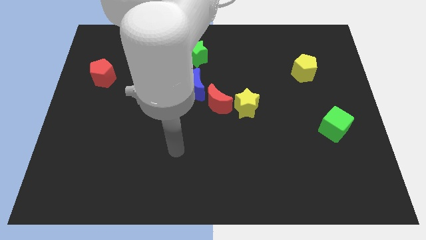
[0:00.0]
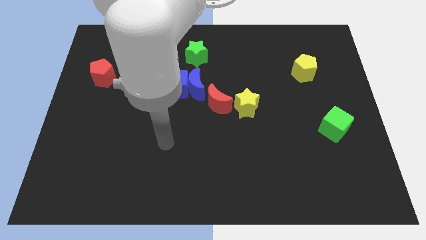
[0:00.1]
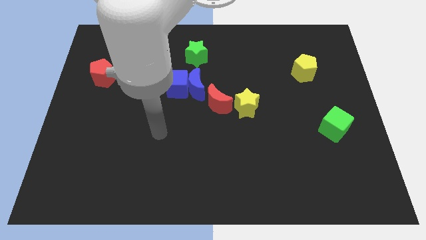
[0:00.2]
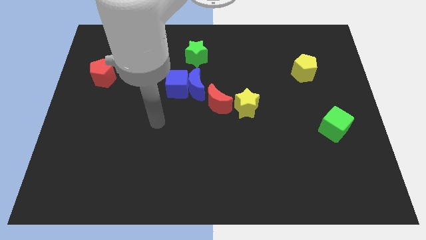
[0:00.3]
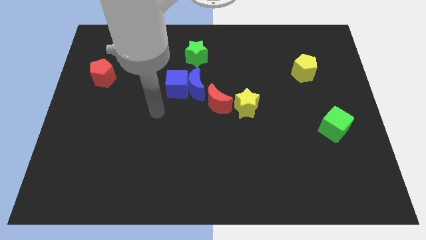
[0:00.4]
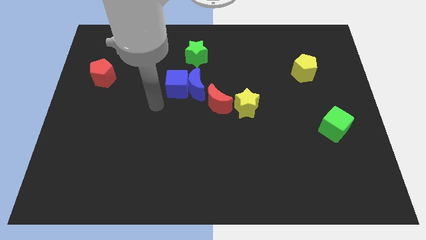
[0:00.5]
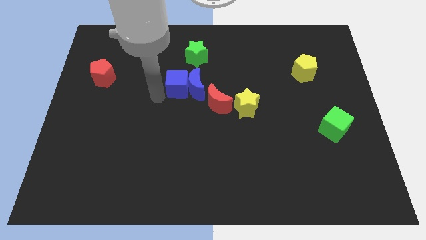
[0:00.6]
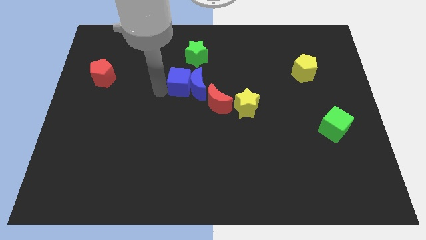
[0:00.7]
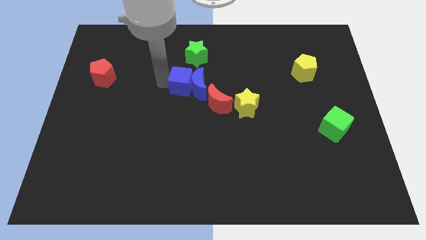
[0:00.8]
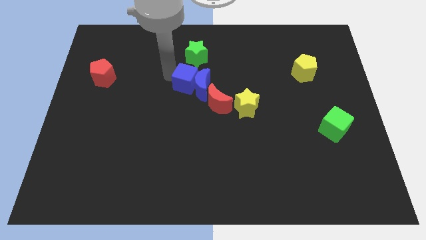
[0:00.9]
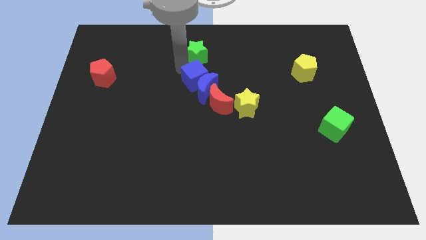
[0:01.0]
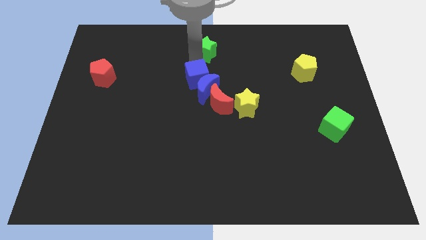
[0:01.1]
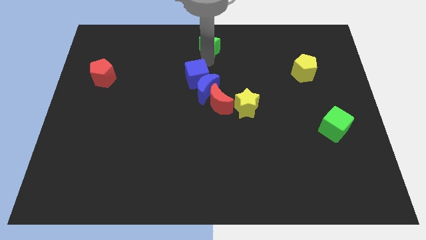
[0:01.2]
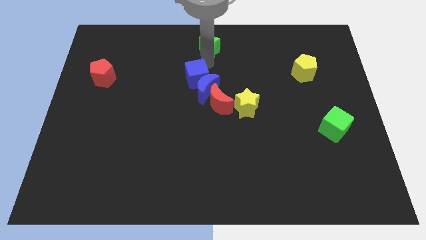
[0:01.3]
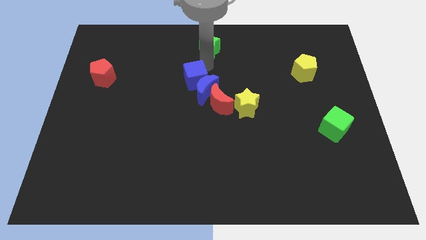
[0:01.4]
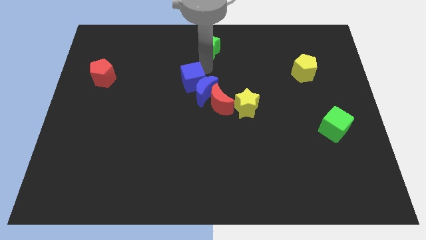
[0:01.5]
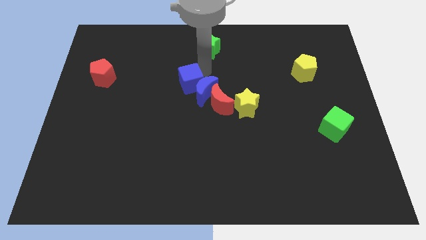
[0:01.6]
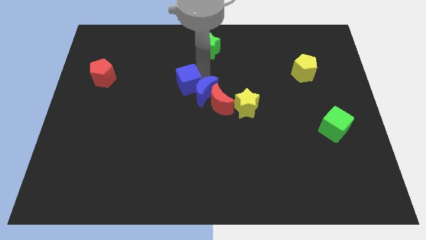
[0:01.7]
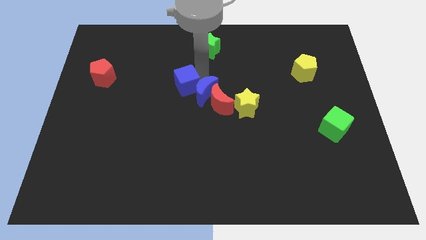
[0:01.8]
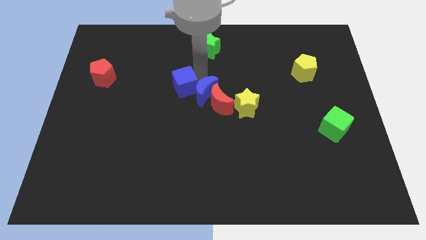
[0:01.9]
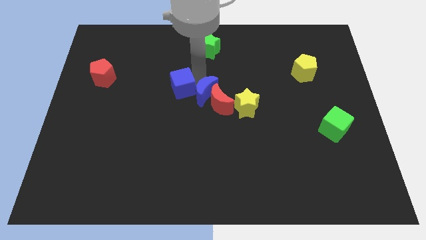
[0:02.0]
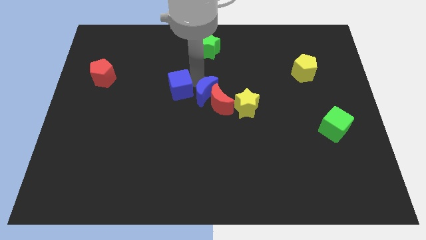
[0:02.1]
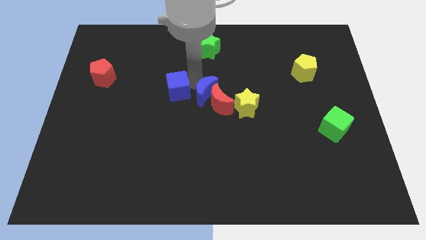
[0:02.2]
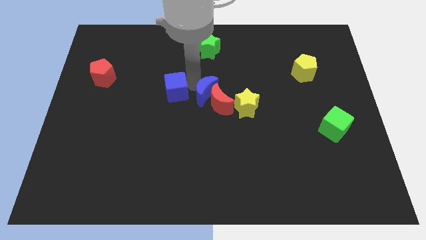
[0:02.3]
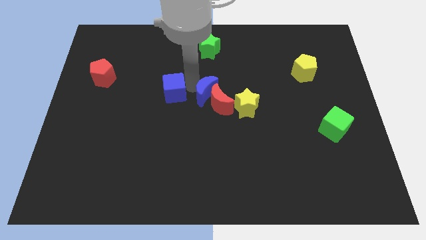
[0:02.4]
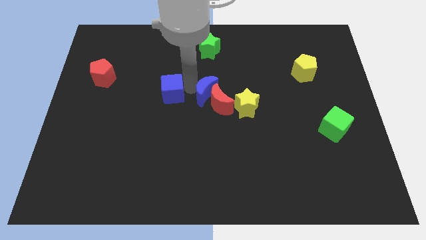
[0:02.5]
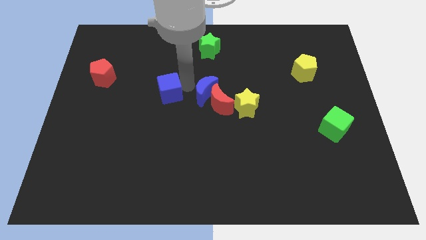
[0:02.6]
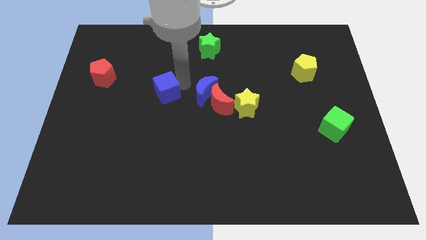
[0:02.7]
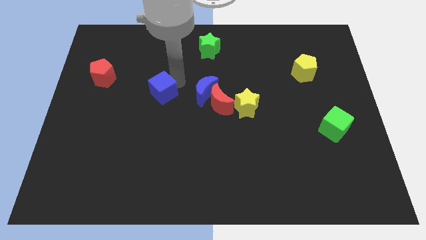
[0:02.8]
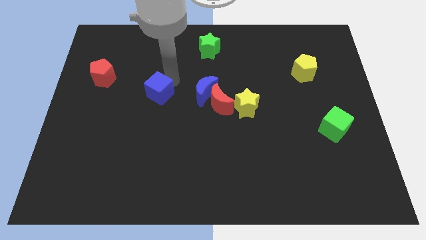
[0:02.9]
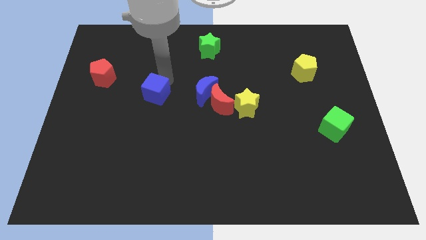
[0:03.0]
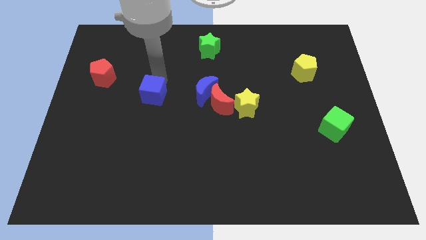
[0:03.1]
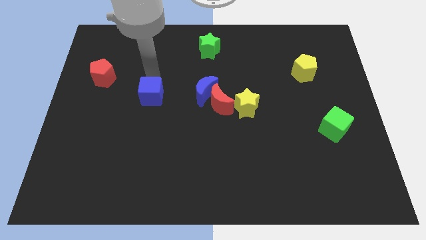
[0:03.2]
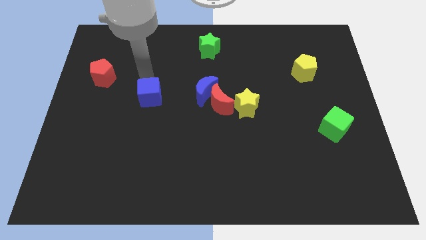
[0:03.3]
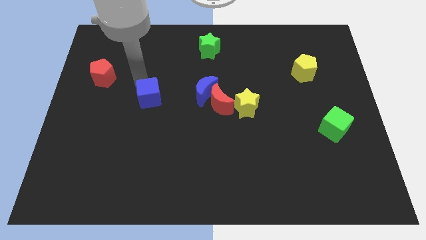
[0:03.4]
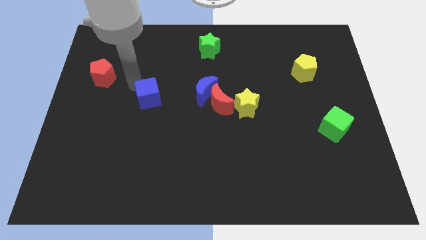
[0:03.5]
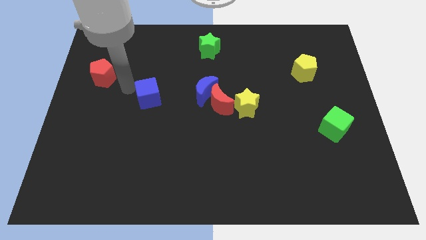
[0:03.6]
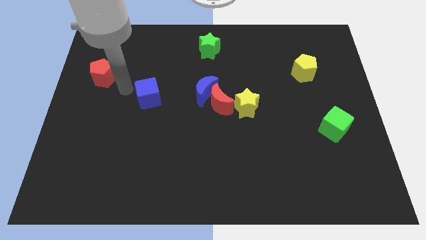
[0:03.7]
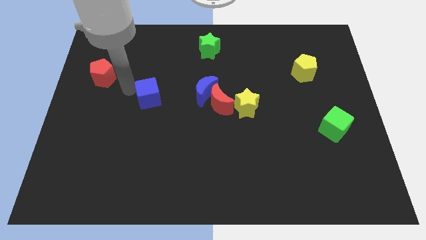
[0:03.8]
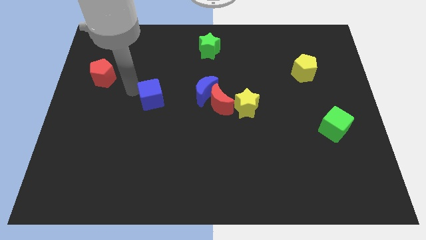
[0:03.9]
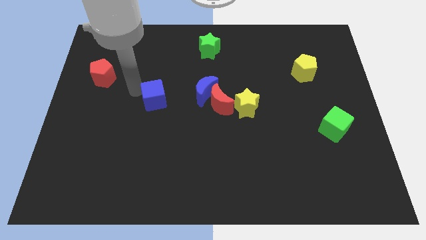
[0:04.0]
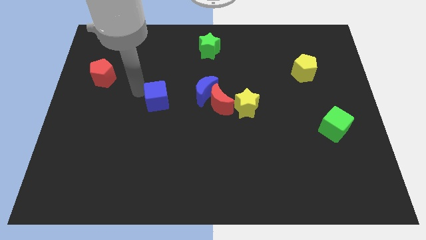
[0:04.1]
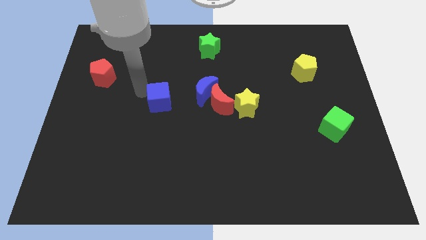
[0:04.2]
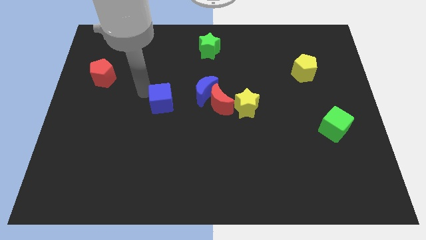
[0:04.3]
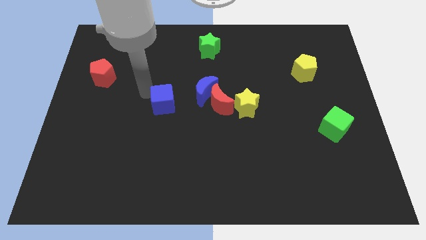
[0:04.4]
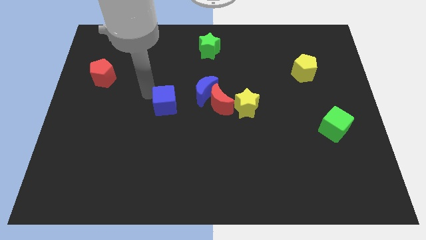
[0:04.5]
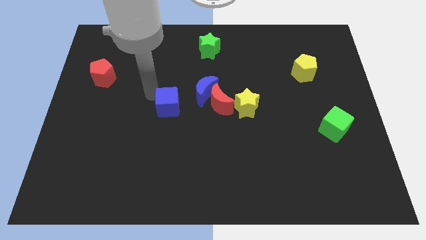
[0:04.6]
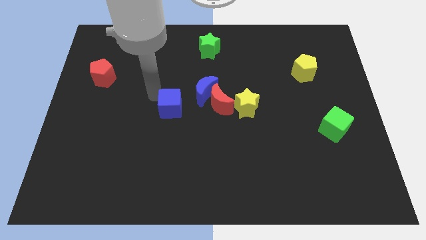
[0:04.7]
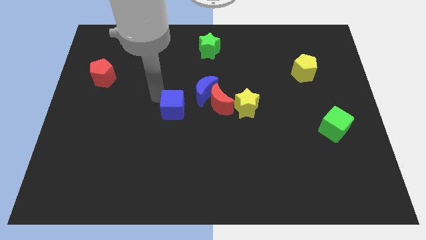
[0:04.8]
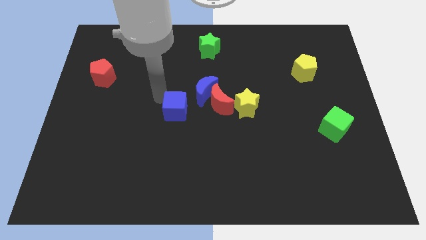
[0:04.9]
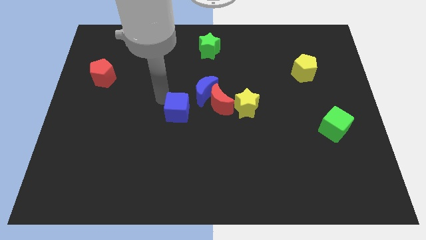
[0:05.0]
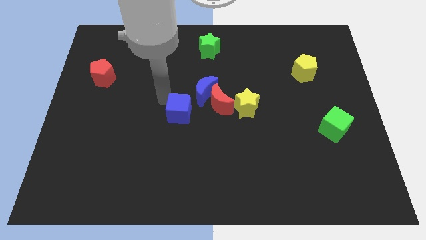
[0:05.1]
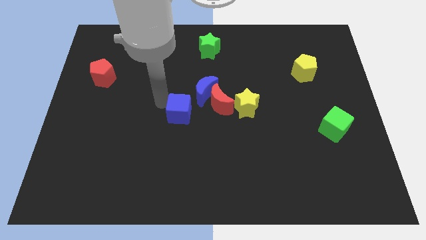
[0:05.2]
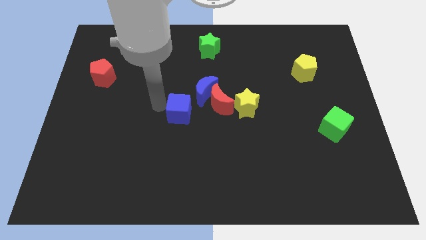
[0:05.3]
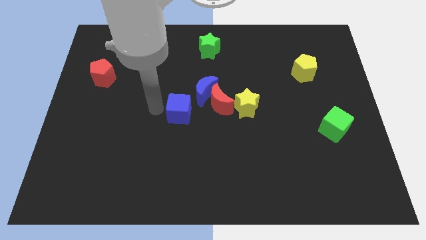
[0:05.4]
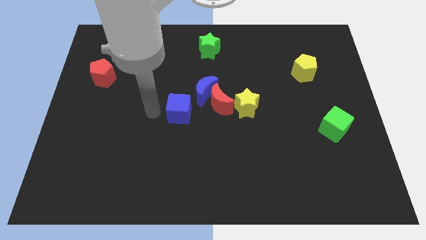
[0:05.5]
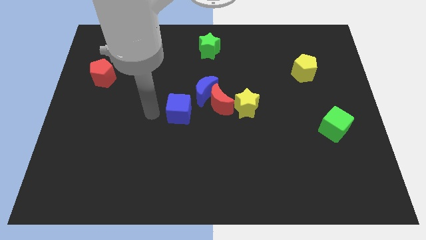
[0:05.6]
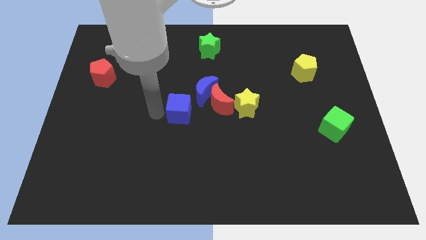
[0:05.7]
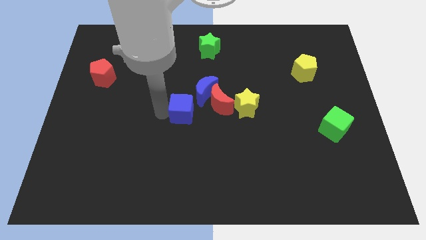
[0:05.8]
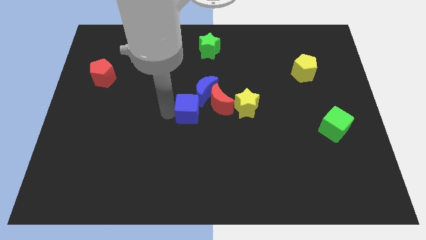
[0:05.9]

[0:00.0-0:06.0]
slightly slide the blue cube diagonally downwards and right

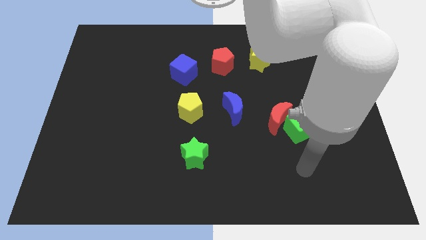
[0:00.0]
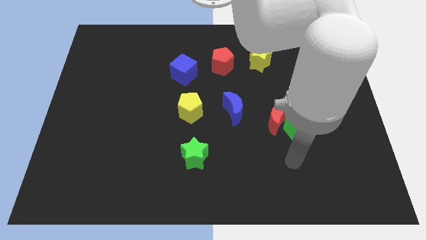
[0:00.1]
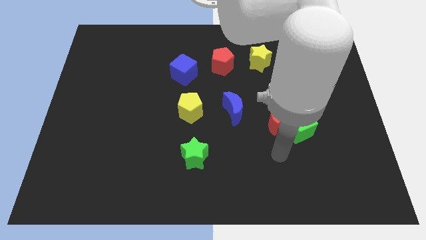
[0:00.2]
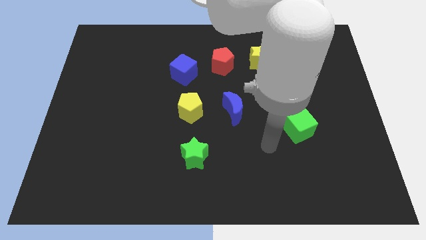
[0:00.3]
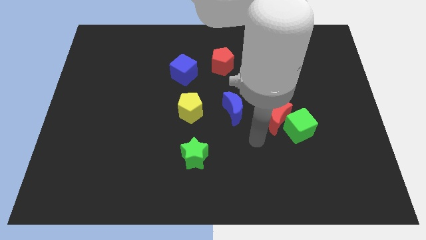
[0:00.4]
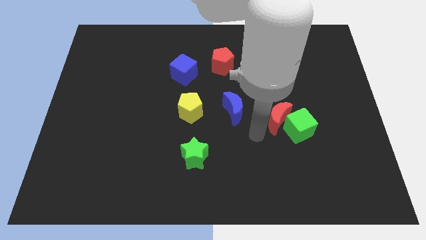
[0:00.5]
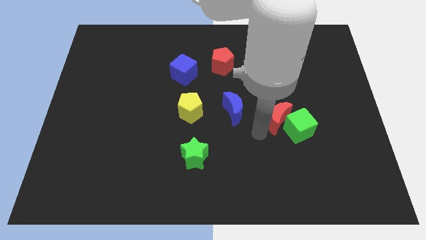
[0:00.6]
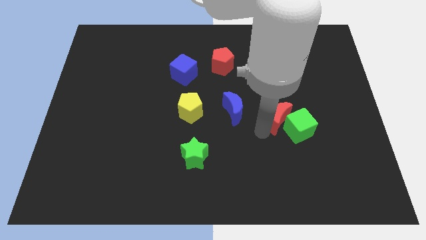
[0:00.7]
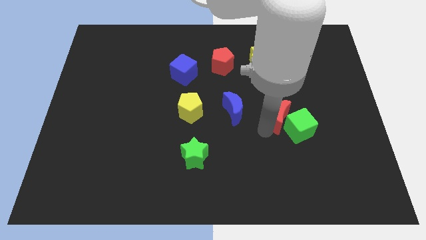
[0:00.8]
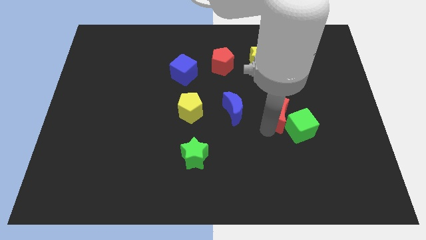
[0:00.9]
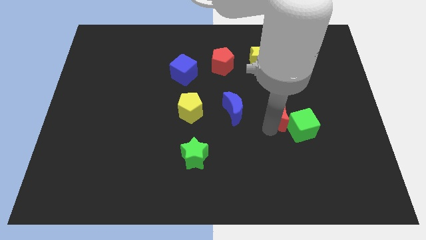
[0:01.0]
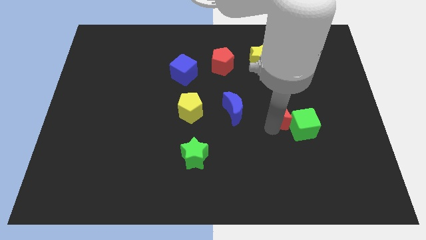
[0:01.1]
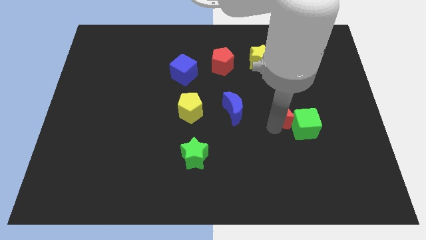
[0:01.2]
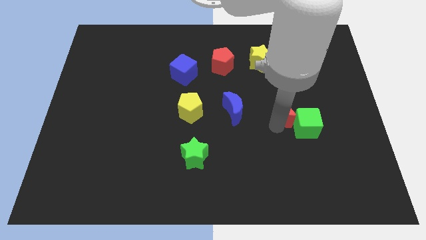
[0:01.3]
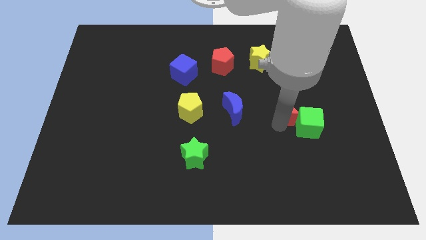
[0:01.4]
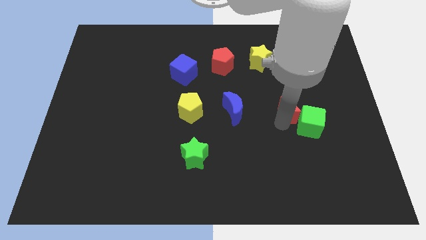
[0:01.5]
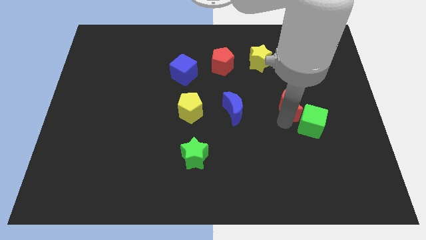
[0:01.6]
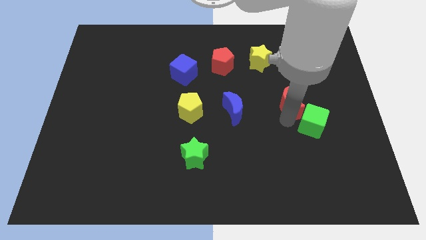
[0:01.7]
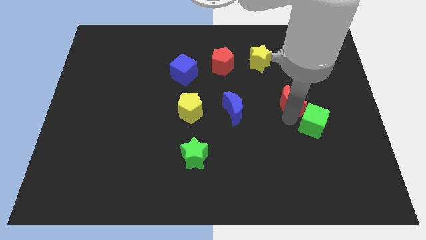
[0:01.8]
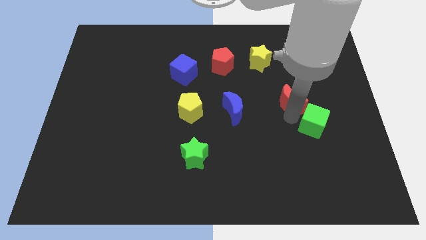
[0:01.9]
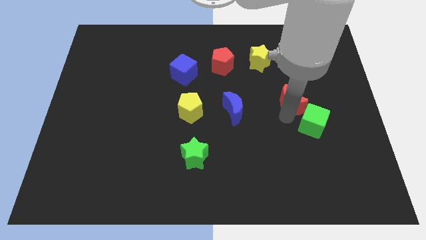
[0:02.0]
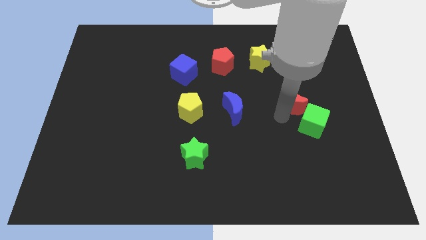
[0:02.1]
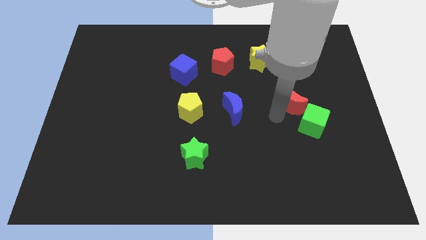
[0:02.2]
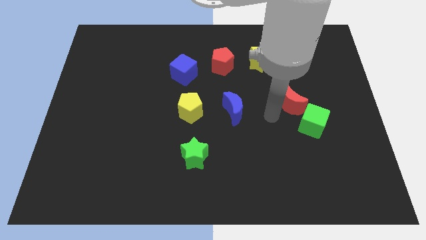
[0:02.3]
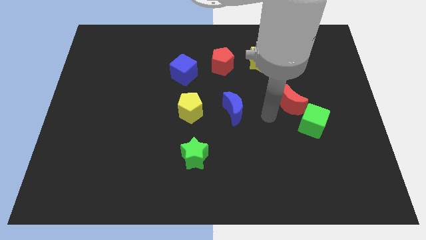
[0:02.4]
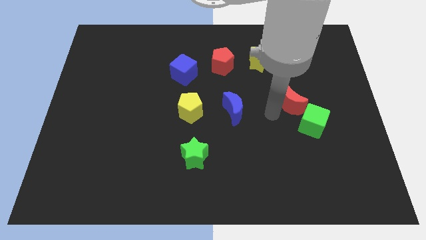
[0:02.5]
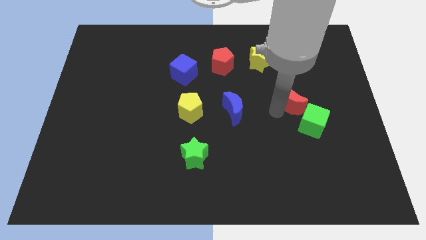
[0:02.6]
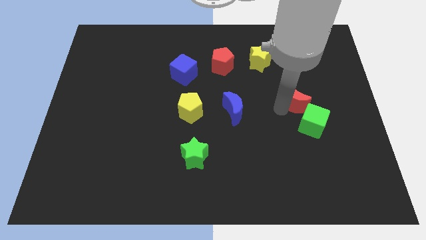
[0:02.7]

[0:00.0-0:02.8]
slightly slide the red moon up and right
